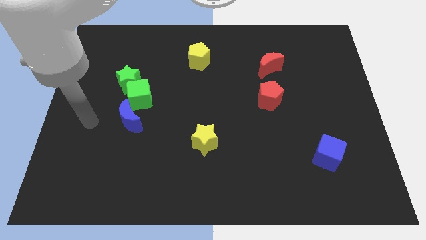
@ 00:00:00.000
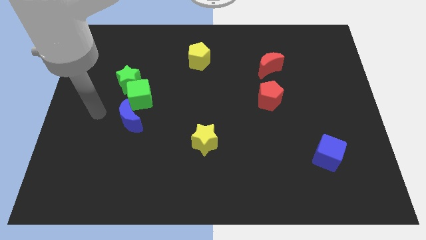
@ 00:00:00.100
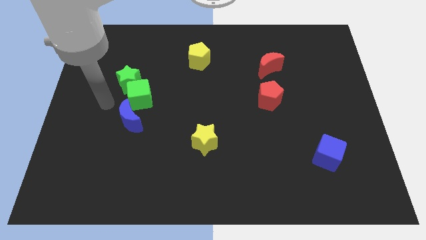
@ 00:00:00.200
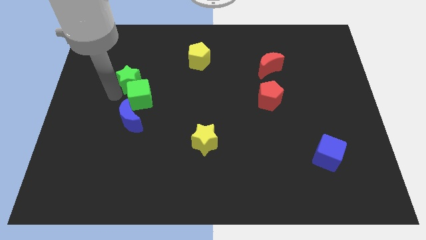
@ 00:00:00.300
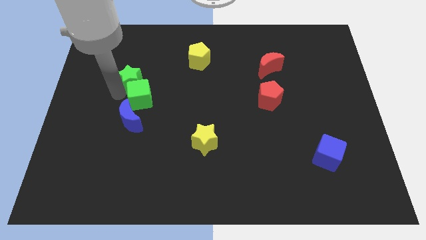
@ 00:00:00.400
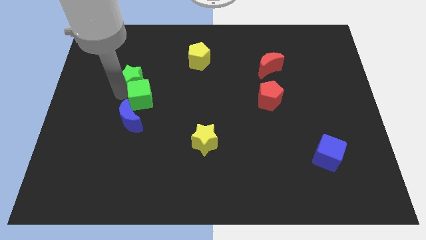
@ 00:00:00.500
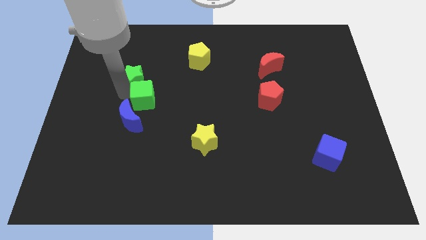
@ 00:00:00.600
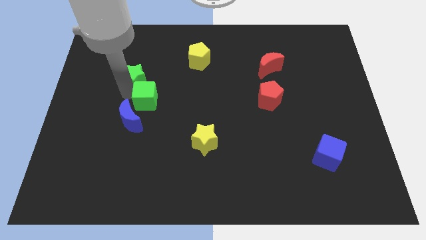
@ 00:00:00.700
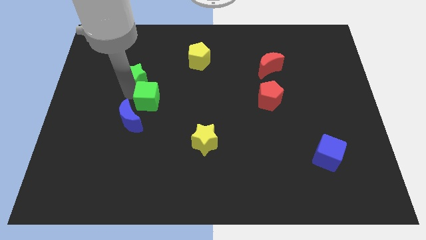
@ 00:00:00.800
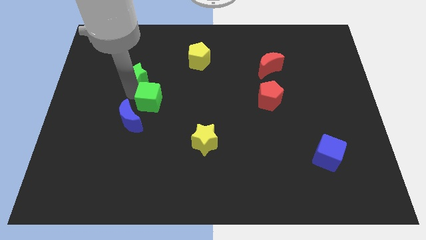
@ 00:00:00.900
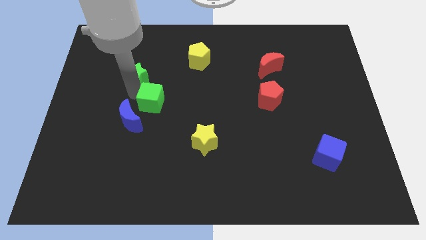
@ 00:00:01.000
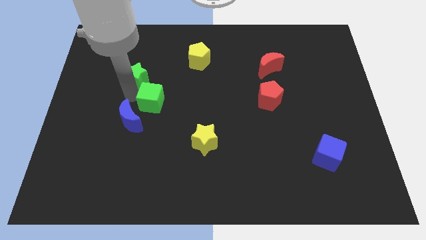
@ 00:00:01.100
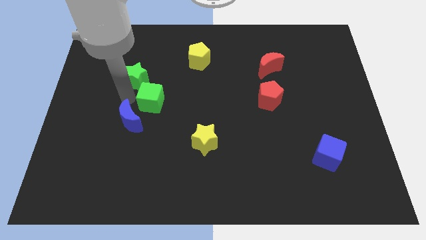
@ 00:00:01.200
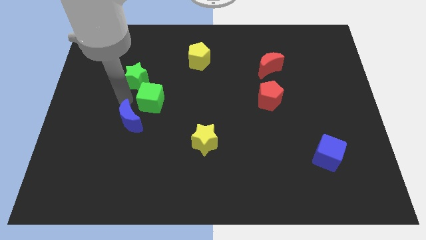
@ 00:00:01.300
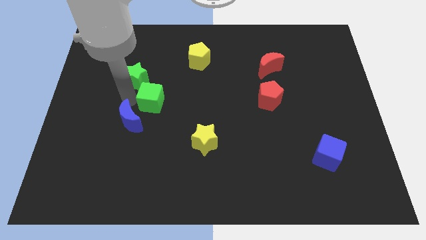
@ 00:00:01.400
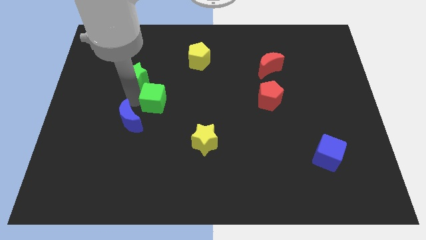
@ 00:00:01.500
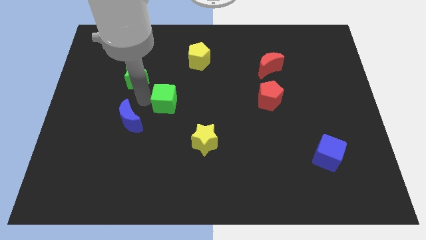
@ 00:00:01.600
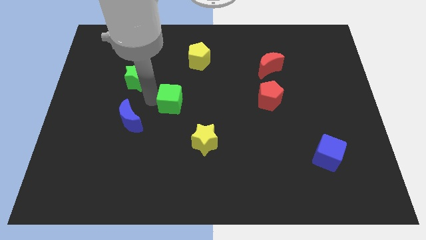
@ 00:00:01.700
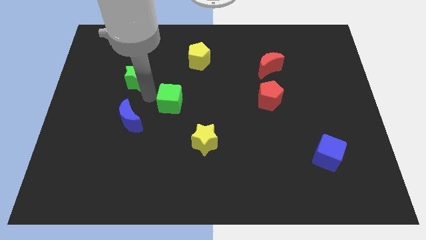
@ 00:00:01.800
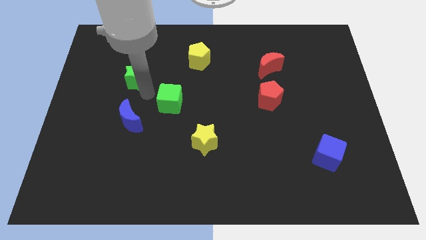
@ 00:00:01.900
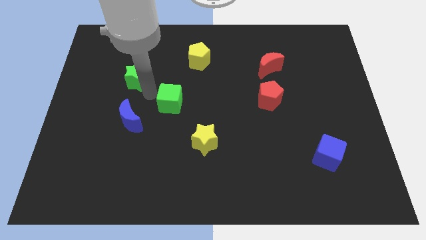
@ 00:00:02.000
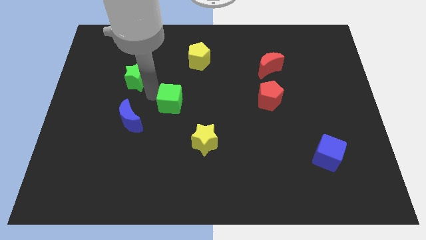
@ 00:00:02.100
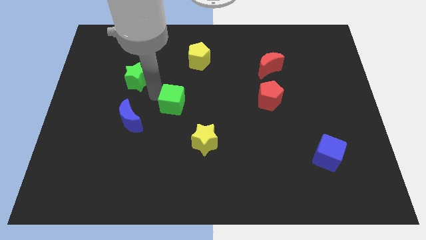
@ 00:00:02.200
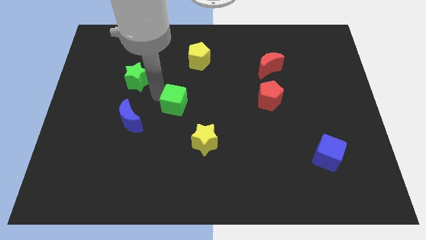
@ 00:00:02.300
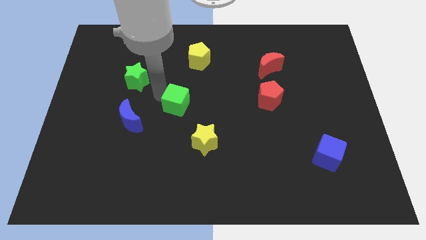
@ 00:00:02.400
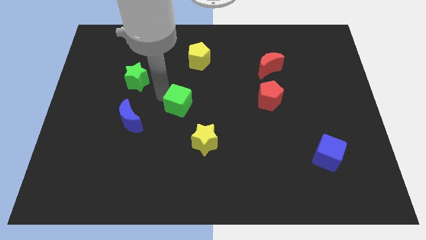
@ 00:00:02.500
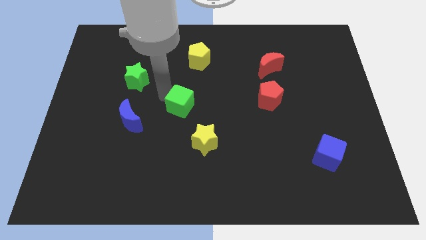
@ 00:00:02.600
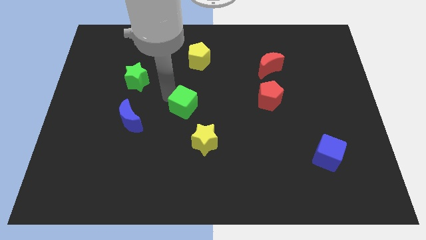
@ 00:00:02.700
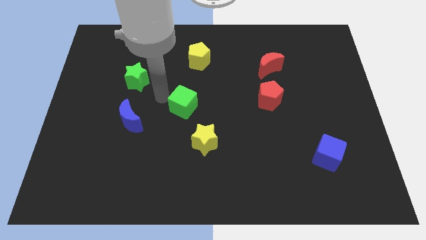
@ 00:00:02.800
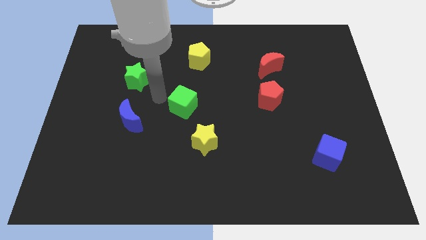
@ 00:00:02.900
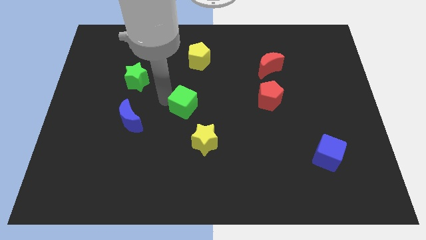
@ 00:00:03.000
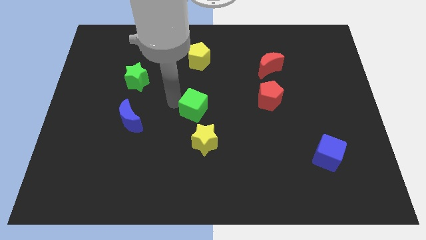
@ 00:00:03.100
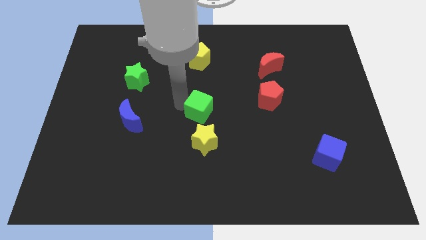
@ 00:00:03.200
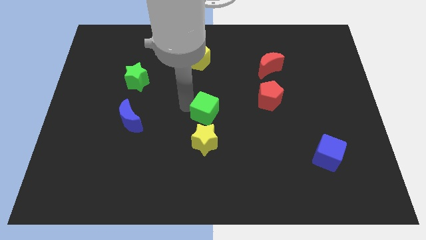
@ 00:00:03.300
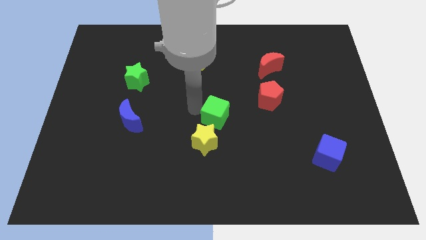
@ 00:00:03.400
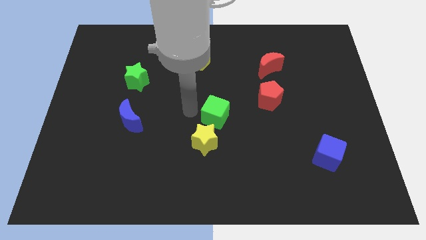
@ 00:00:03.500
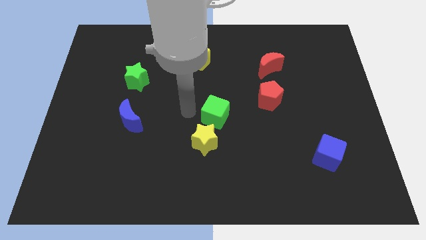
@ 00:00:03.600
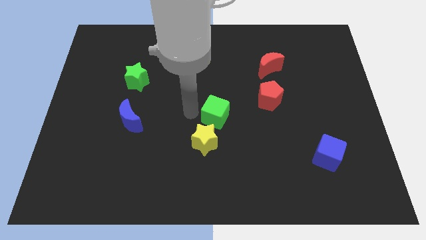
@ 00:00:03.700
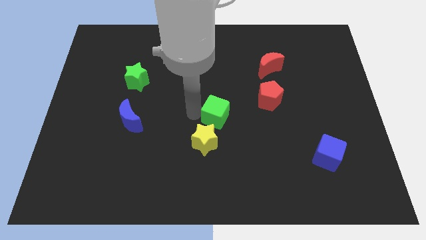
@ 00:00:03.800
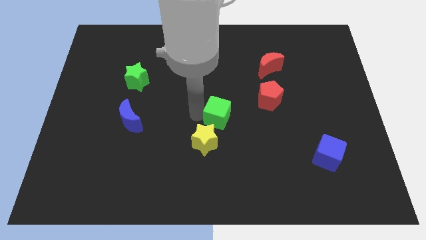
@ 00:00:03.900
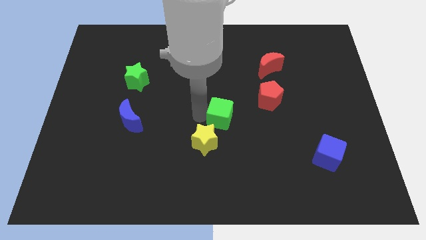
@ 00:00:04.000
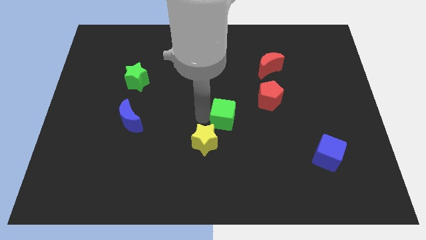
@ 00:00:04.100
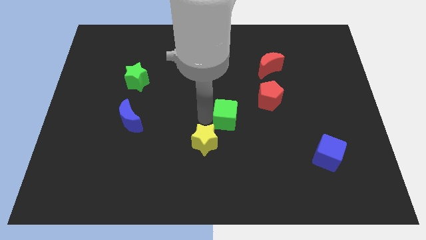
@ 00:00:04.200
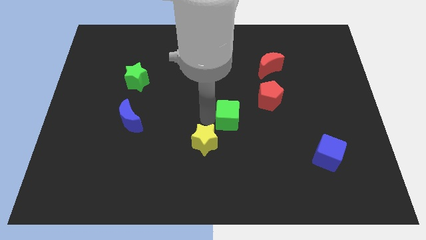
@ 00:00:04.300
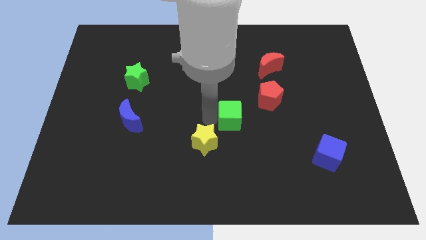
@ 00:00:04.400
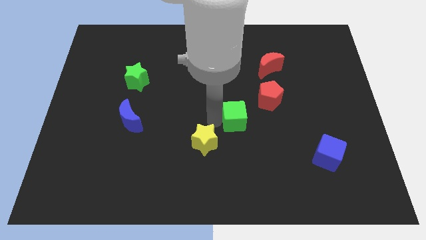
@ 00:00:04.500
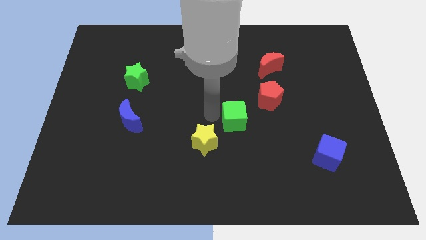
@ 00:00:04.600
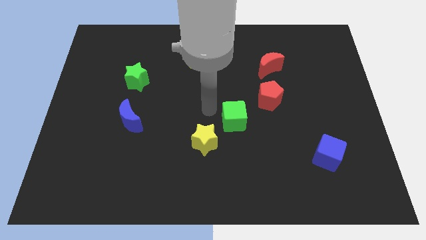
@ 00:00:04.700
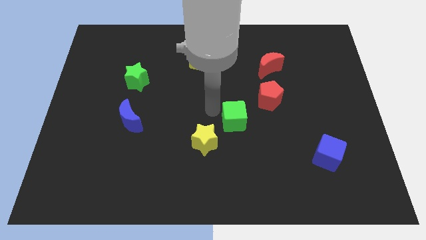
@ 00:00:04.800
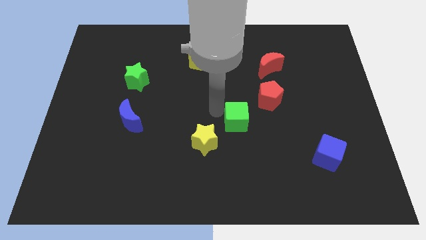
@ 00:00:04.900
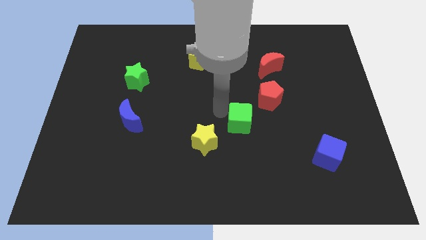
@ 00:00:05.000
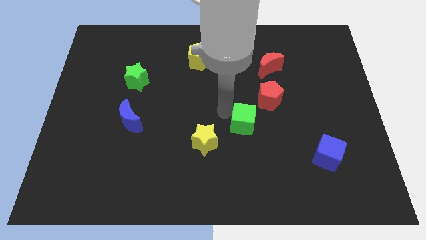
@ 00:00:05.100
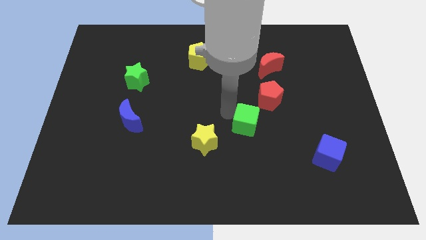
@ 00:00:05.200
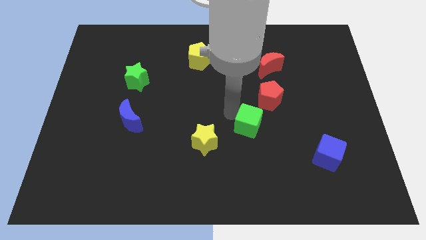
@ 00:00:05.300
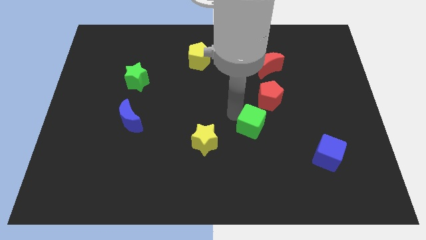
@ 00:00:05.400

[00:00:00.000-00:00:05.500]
move the green cube below the red pentagon

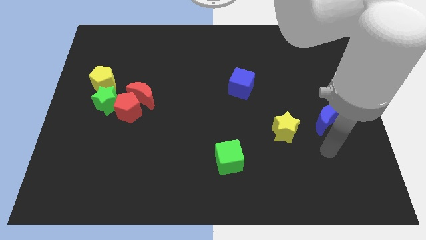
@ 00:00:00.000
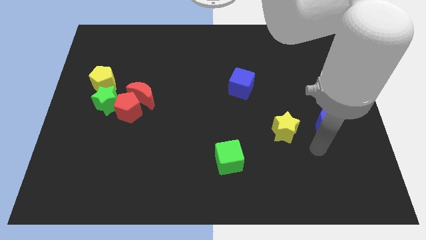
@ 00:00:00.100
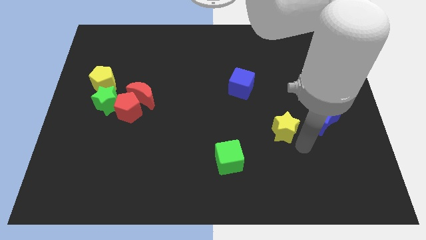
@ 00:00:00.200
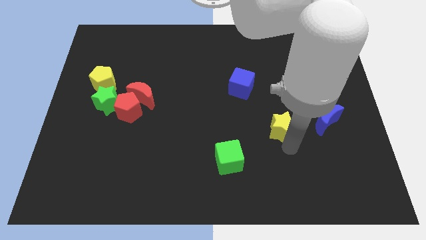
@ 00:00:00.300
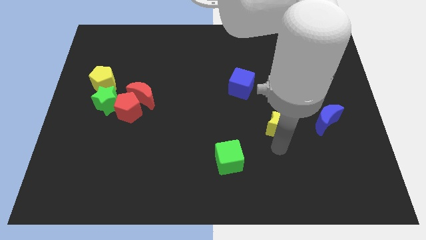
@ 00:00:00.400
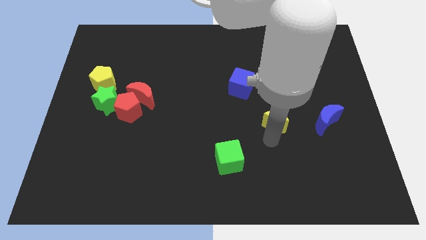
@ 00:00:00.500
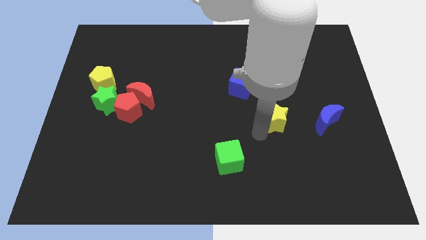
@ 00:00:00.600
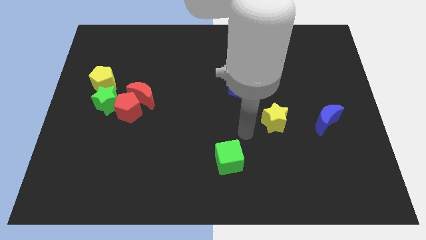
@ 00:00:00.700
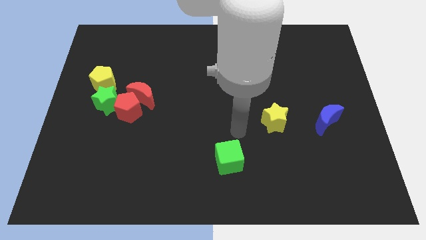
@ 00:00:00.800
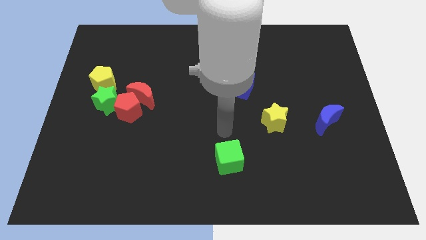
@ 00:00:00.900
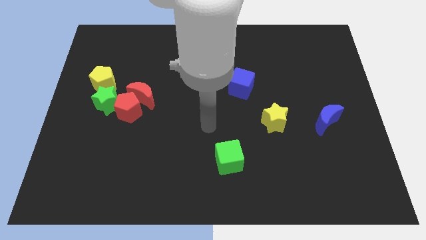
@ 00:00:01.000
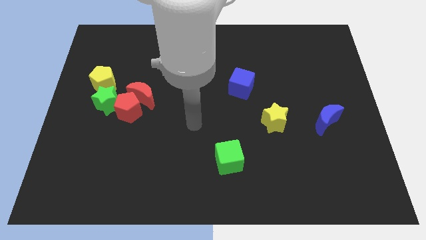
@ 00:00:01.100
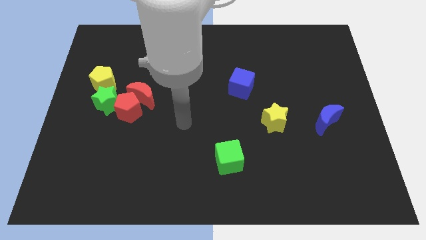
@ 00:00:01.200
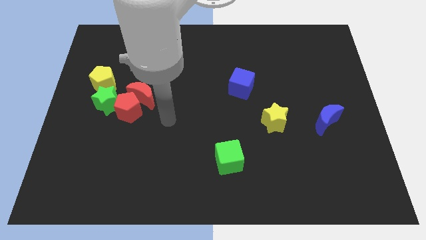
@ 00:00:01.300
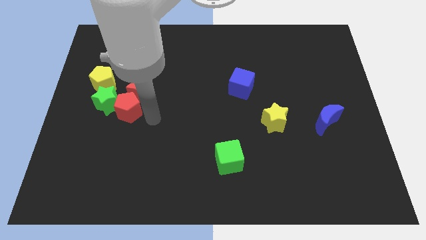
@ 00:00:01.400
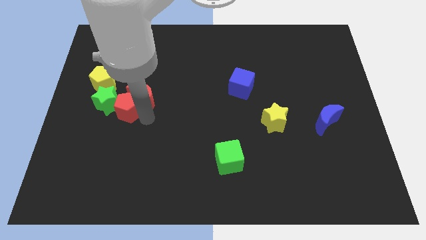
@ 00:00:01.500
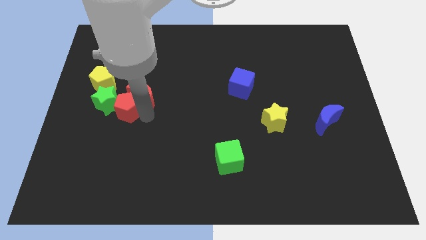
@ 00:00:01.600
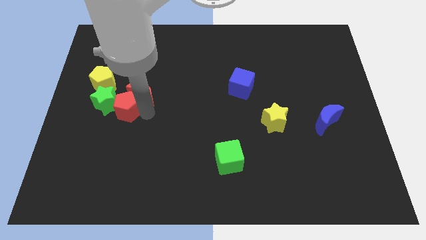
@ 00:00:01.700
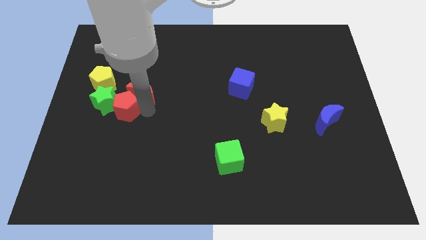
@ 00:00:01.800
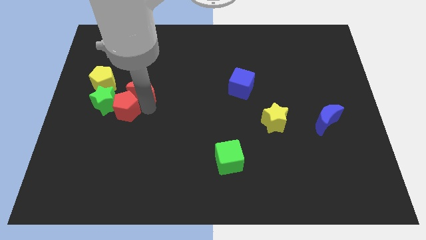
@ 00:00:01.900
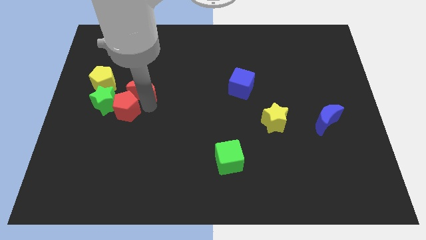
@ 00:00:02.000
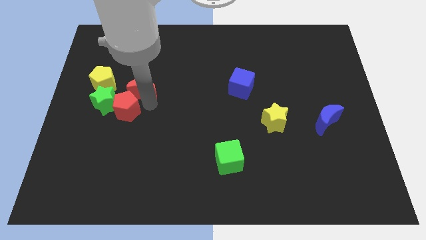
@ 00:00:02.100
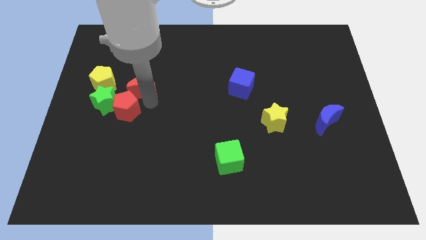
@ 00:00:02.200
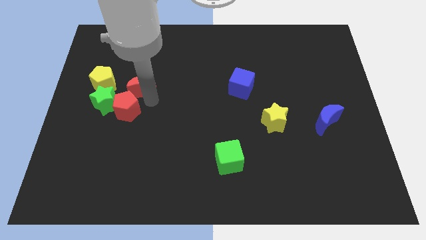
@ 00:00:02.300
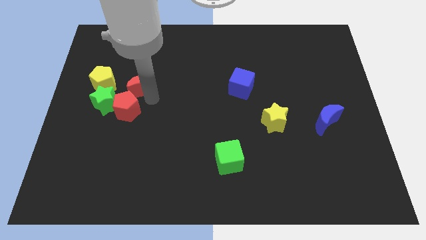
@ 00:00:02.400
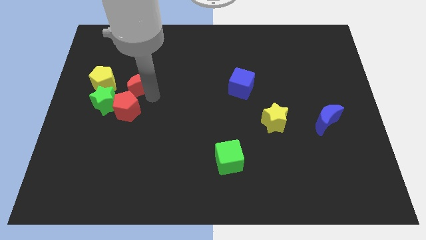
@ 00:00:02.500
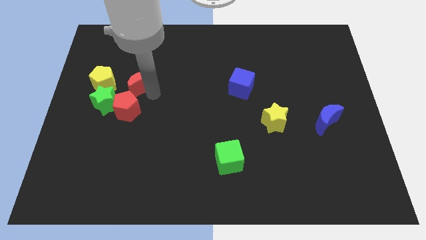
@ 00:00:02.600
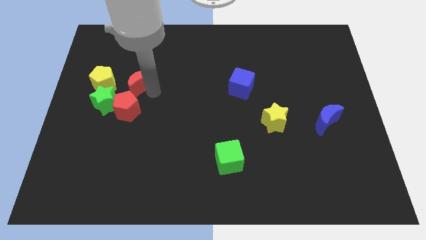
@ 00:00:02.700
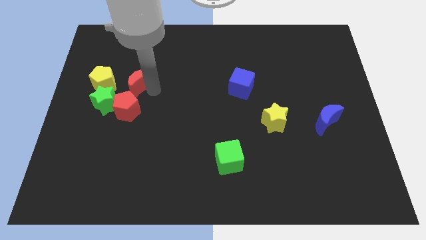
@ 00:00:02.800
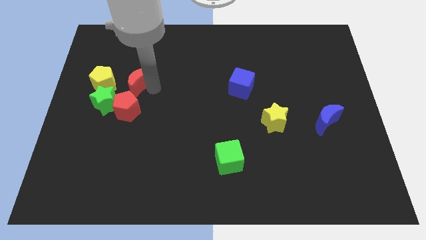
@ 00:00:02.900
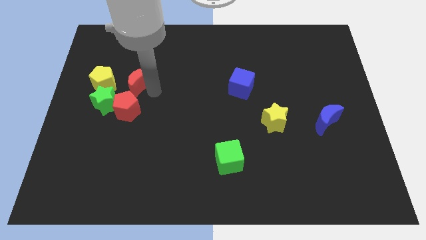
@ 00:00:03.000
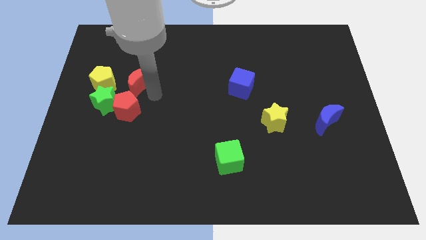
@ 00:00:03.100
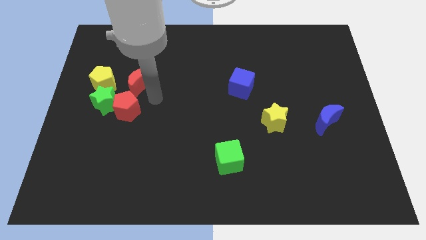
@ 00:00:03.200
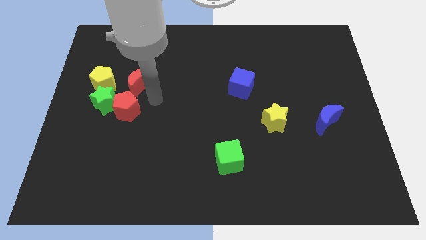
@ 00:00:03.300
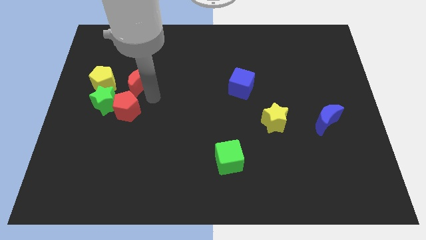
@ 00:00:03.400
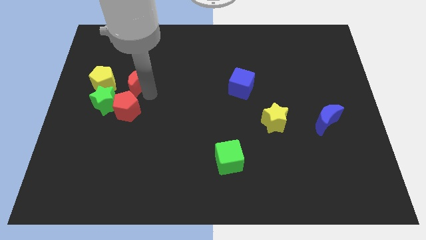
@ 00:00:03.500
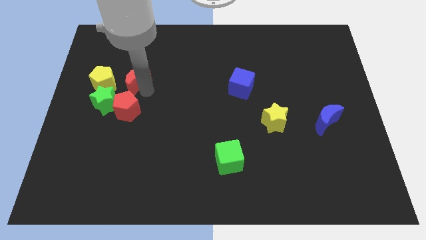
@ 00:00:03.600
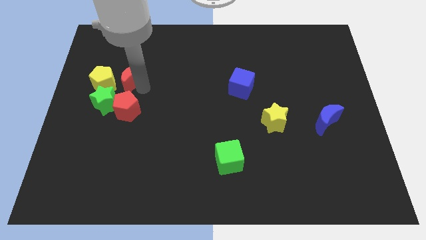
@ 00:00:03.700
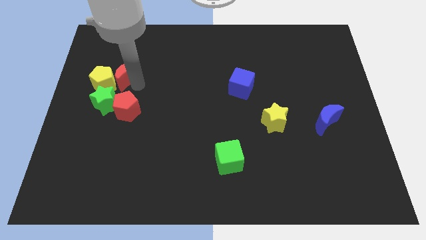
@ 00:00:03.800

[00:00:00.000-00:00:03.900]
push the red moon above the green star
